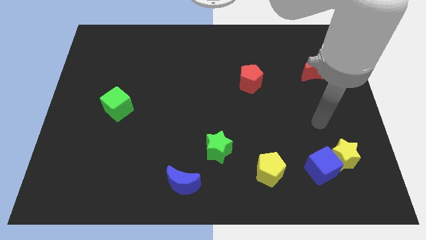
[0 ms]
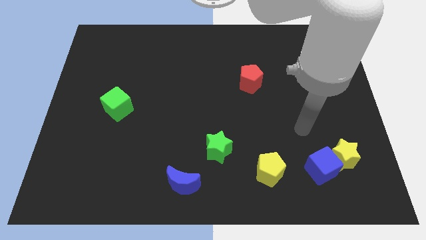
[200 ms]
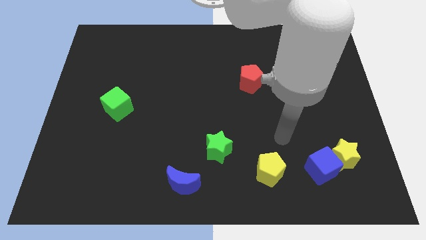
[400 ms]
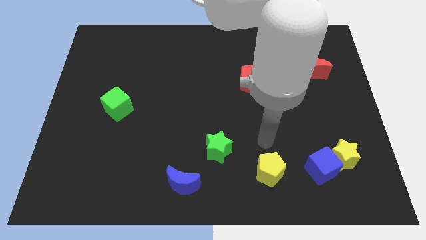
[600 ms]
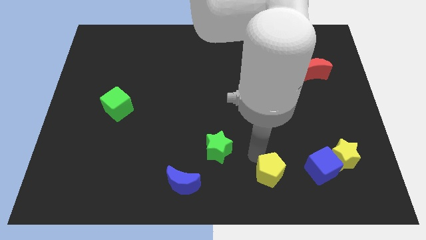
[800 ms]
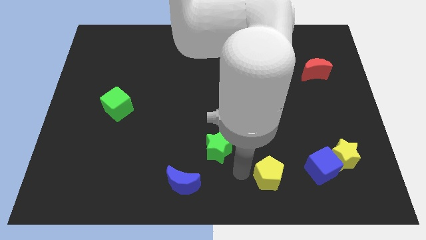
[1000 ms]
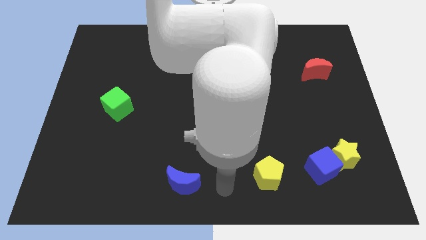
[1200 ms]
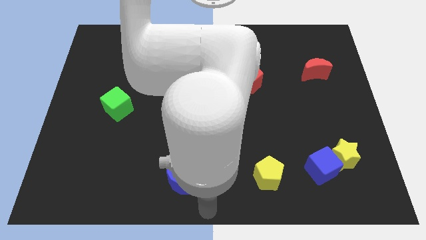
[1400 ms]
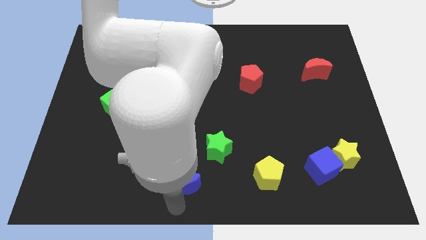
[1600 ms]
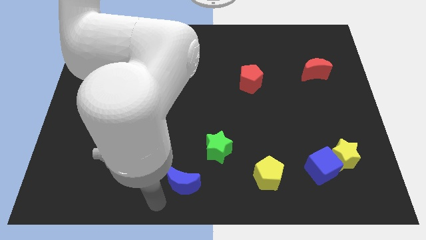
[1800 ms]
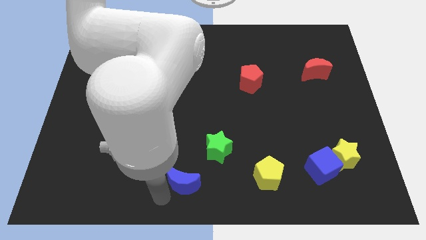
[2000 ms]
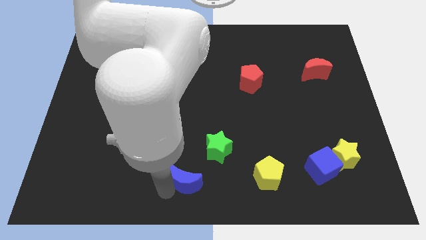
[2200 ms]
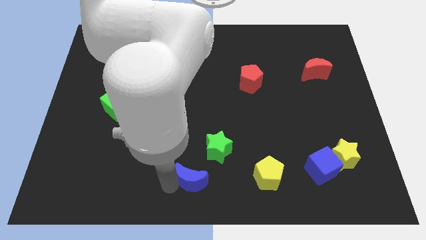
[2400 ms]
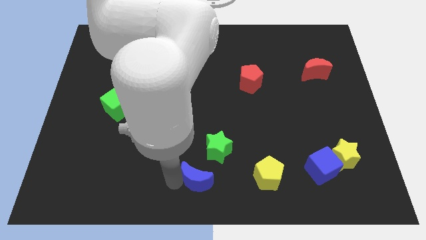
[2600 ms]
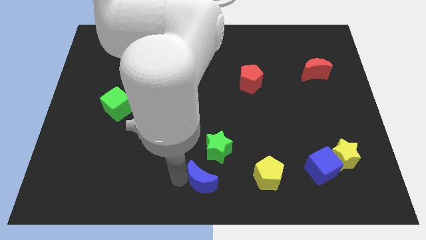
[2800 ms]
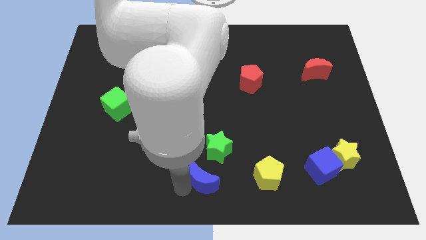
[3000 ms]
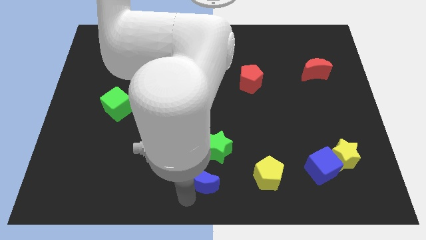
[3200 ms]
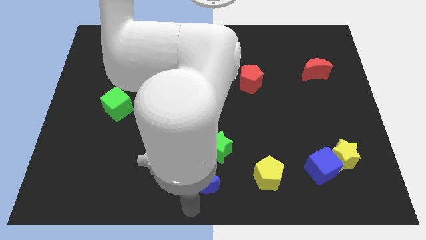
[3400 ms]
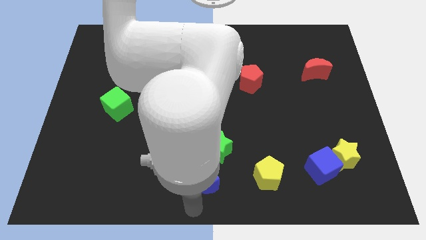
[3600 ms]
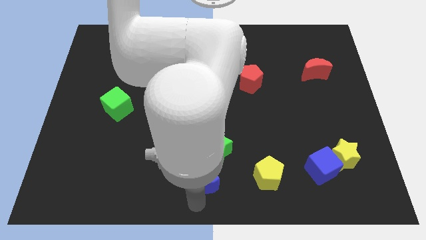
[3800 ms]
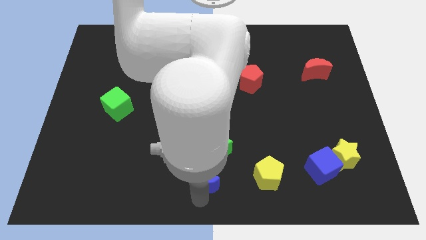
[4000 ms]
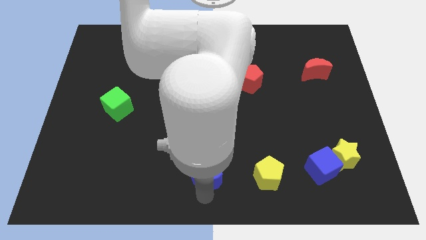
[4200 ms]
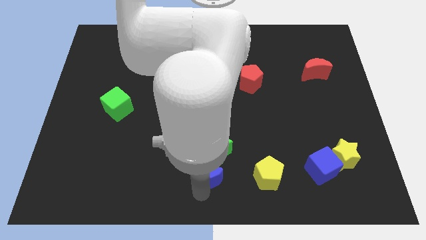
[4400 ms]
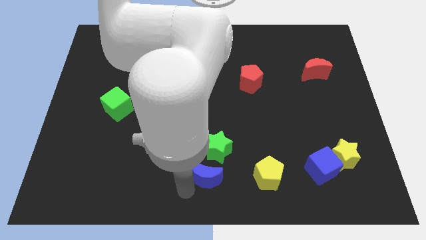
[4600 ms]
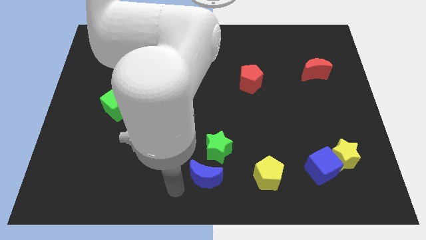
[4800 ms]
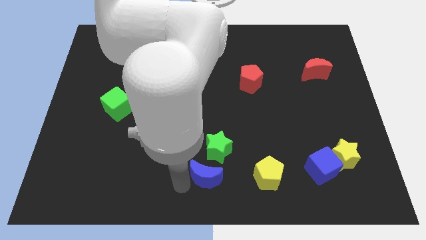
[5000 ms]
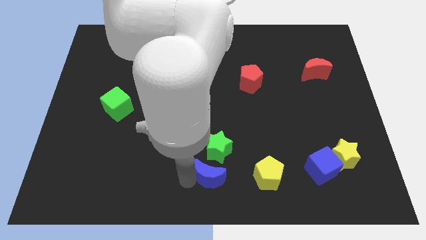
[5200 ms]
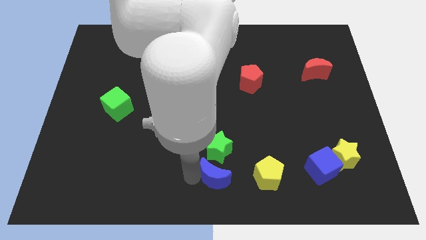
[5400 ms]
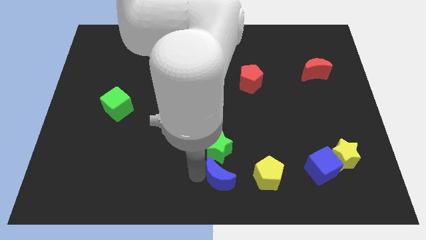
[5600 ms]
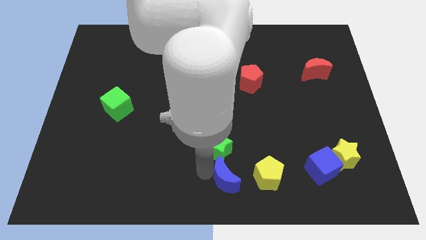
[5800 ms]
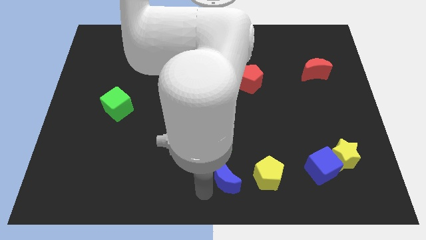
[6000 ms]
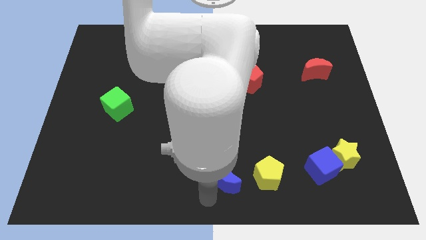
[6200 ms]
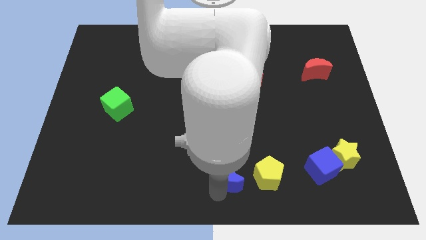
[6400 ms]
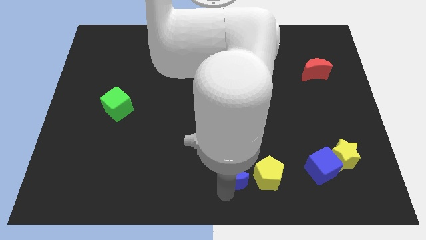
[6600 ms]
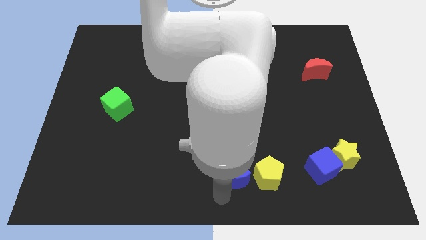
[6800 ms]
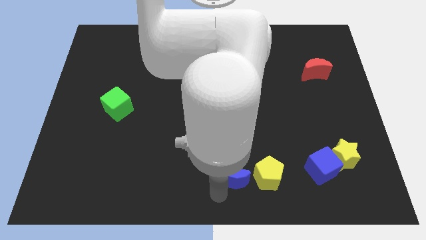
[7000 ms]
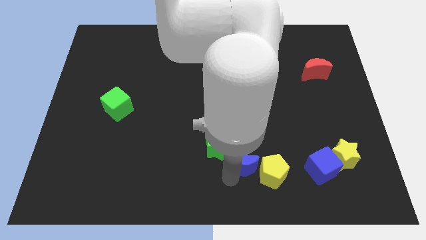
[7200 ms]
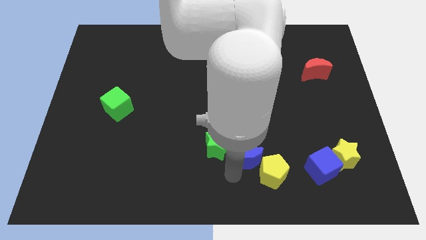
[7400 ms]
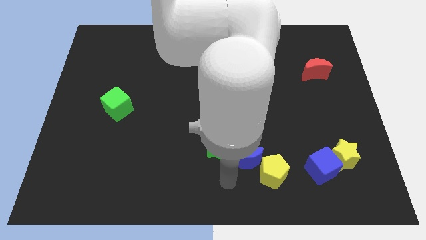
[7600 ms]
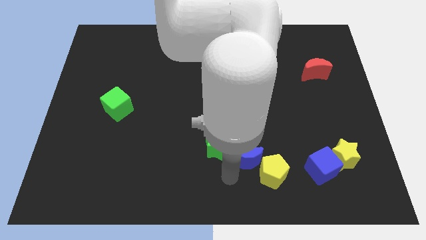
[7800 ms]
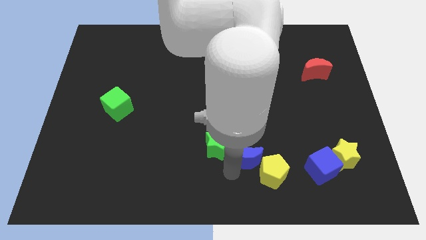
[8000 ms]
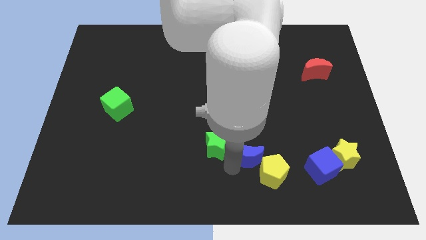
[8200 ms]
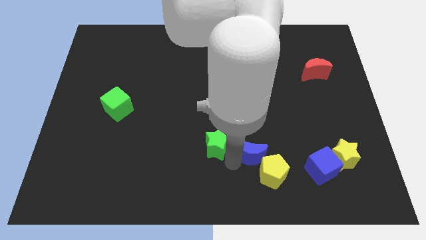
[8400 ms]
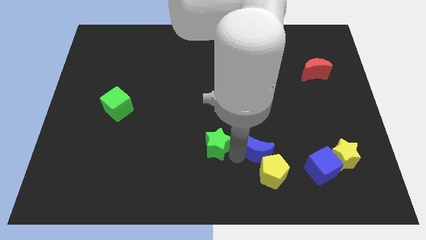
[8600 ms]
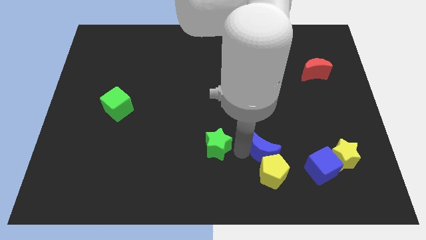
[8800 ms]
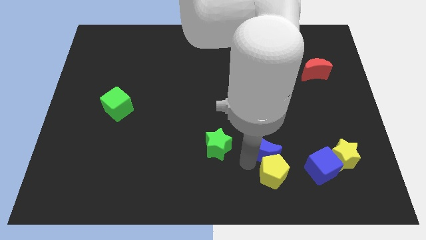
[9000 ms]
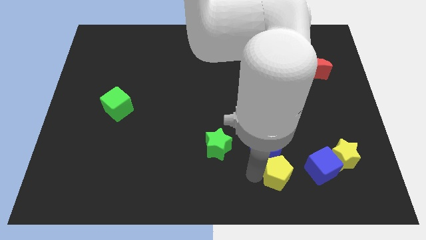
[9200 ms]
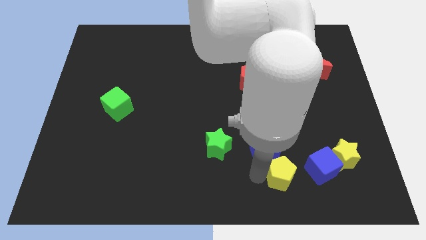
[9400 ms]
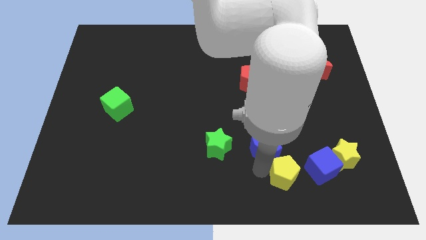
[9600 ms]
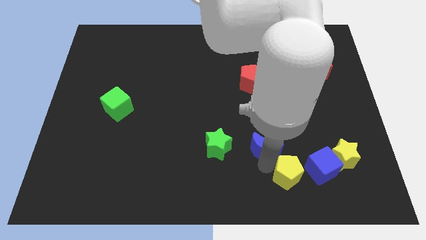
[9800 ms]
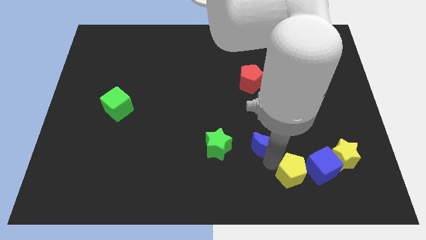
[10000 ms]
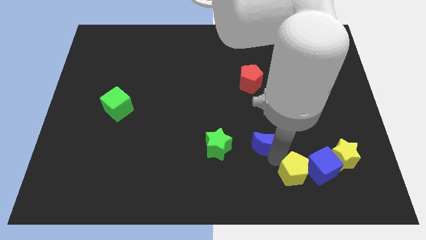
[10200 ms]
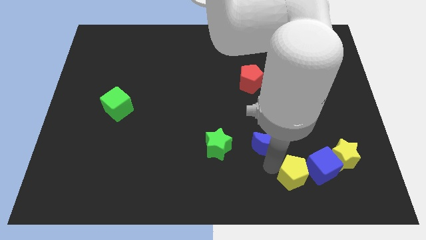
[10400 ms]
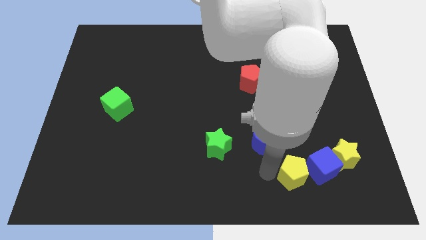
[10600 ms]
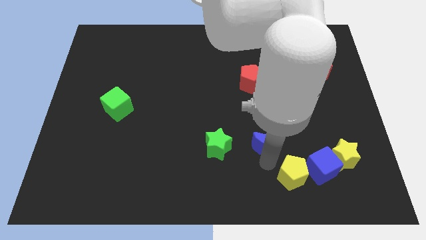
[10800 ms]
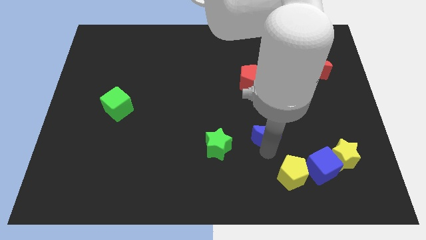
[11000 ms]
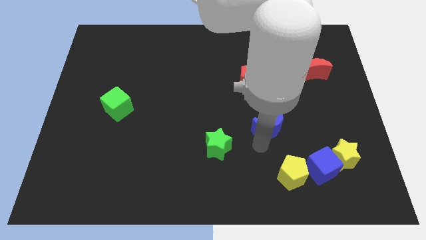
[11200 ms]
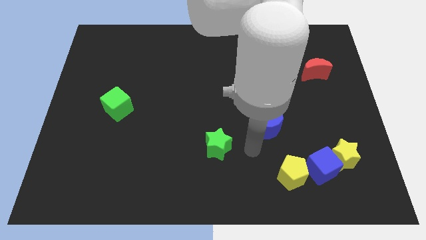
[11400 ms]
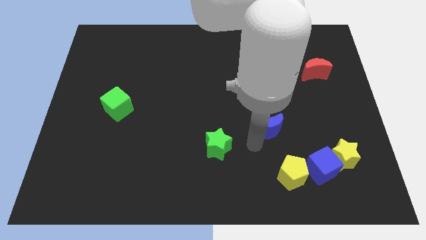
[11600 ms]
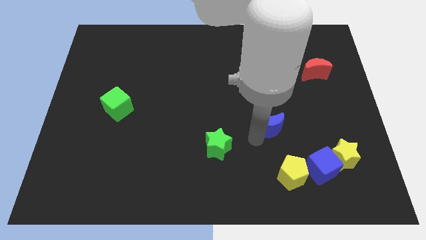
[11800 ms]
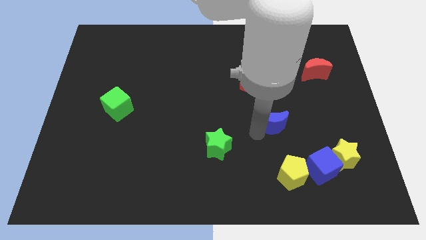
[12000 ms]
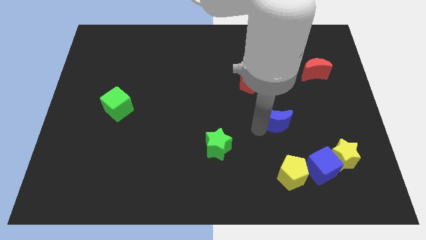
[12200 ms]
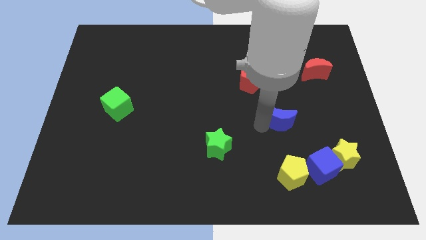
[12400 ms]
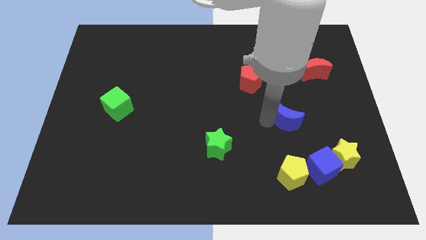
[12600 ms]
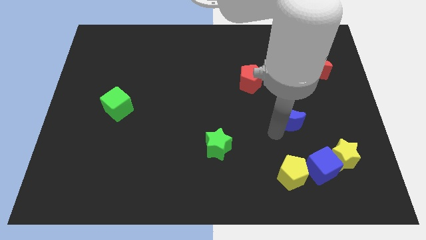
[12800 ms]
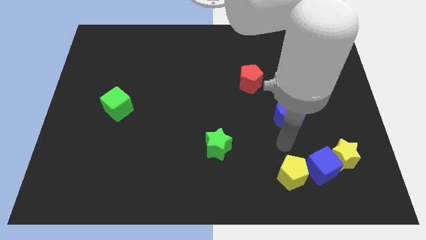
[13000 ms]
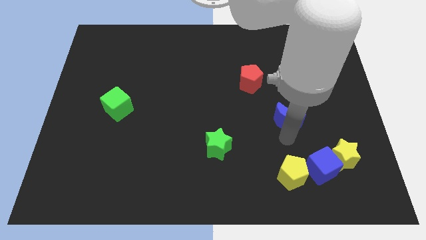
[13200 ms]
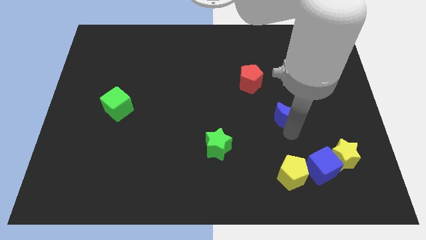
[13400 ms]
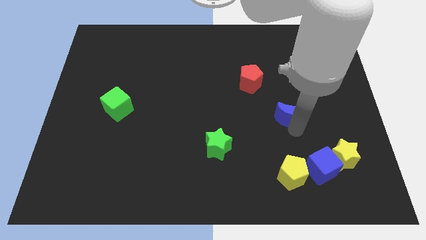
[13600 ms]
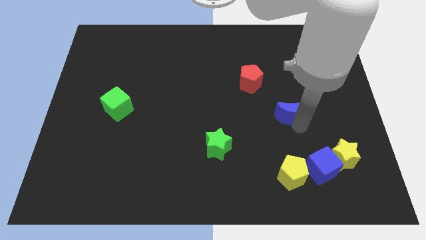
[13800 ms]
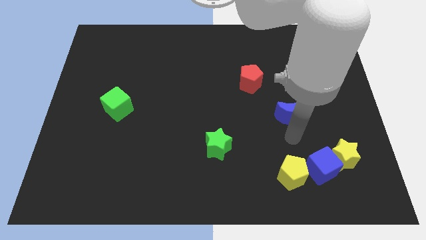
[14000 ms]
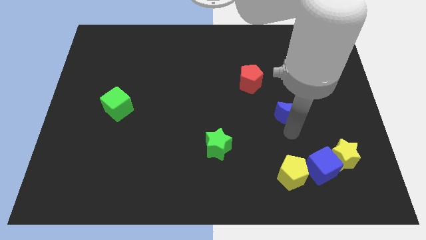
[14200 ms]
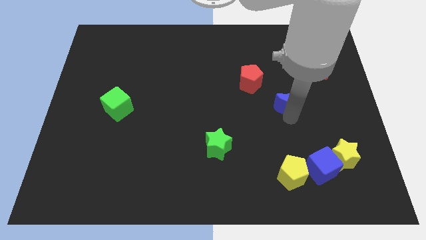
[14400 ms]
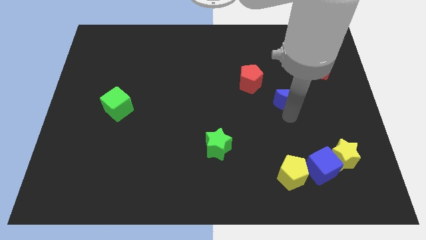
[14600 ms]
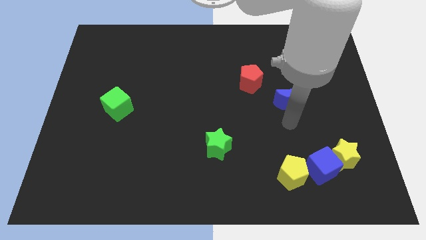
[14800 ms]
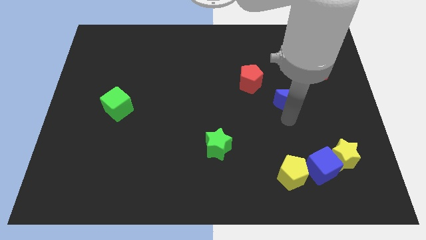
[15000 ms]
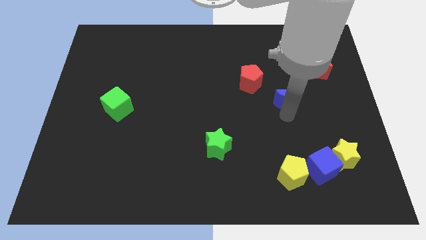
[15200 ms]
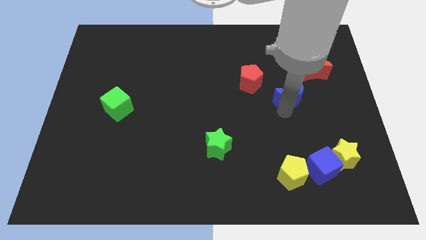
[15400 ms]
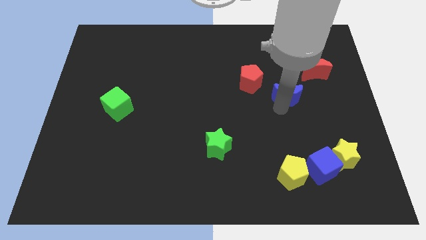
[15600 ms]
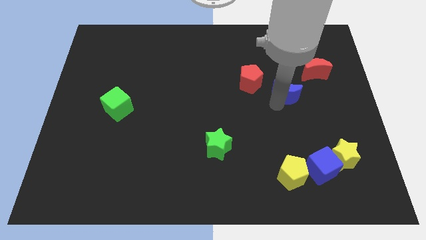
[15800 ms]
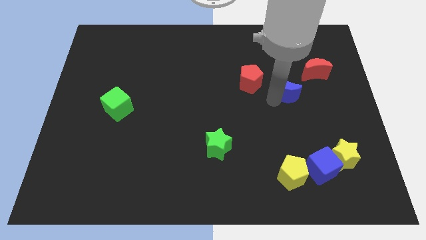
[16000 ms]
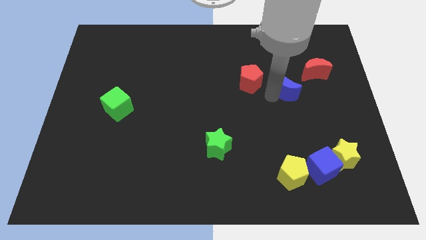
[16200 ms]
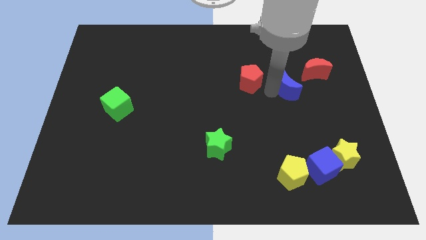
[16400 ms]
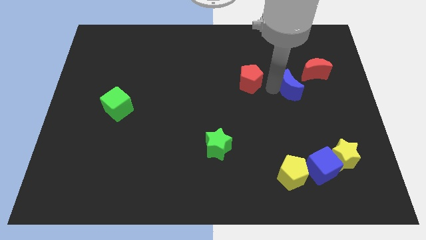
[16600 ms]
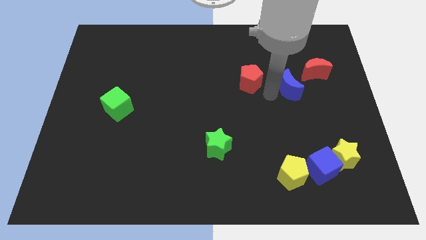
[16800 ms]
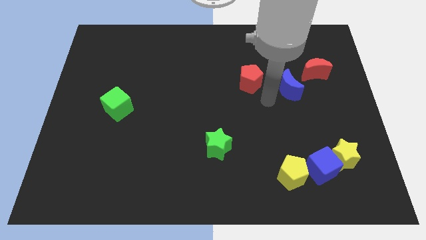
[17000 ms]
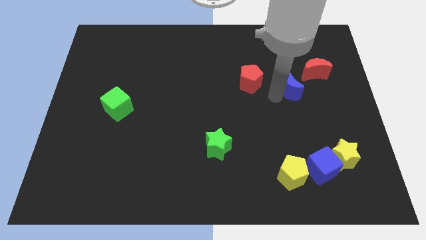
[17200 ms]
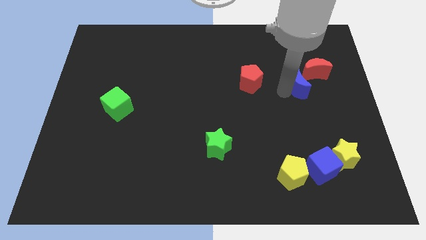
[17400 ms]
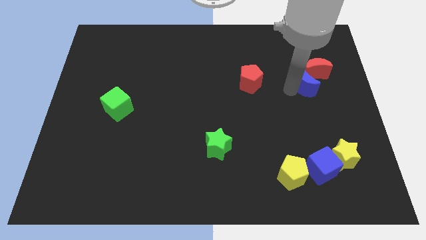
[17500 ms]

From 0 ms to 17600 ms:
slide the blue moon to the red moon
